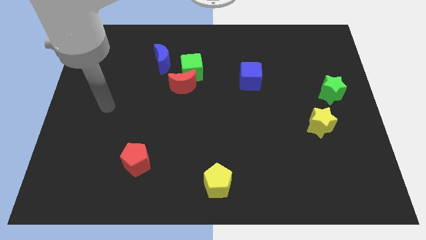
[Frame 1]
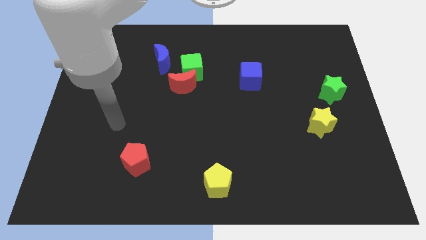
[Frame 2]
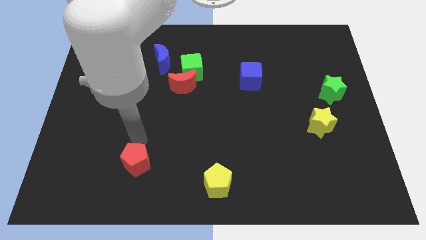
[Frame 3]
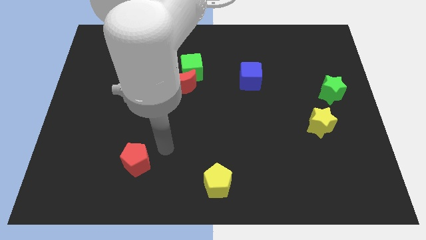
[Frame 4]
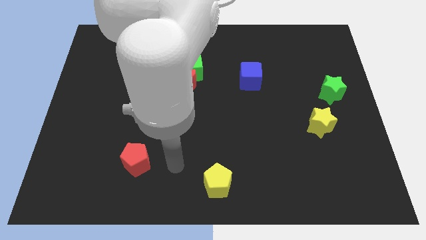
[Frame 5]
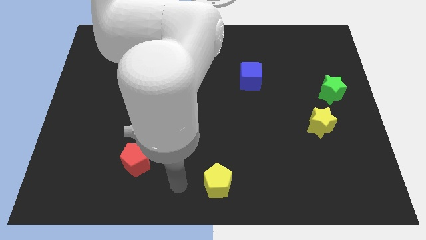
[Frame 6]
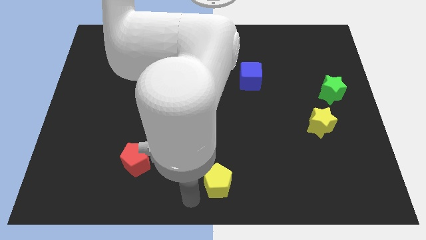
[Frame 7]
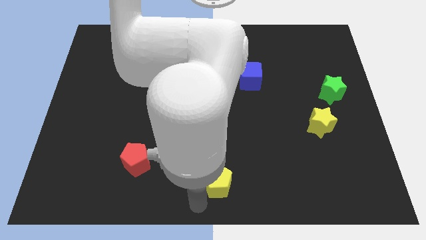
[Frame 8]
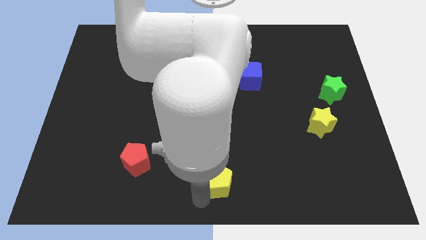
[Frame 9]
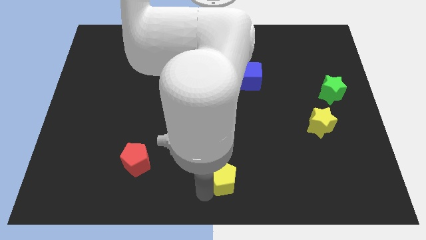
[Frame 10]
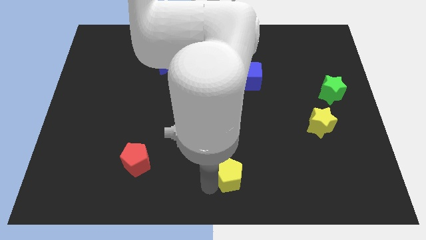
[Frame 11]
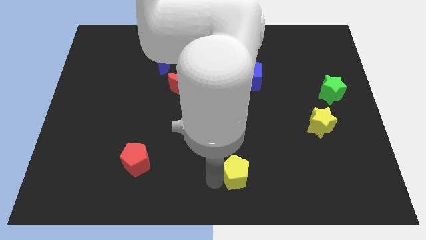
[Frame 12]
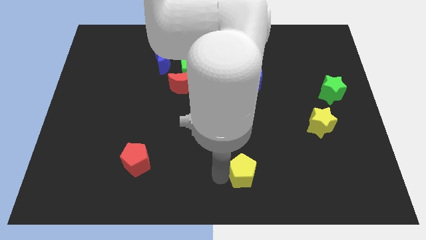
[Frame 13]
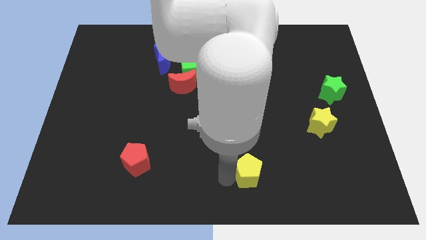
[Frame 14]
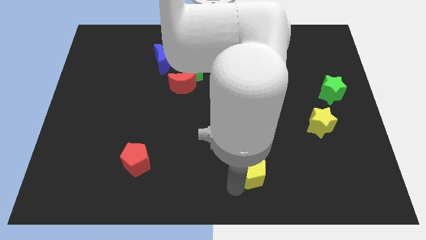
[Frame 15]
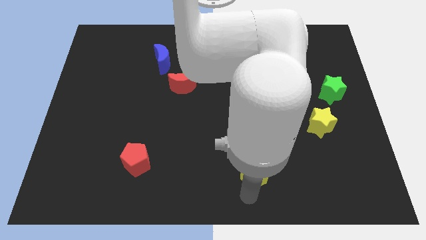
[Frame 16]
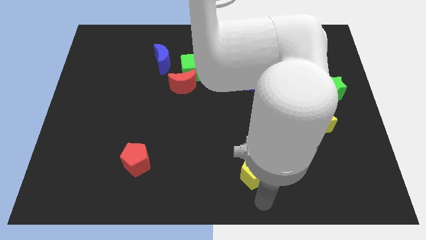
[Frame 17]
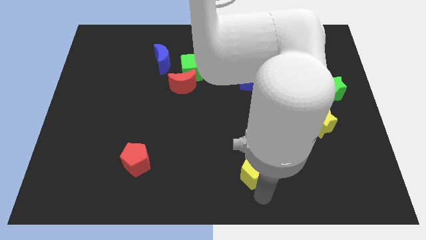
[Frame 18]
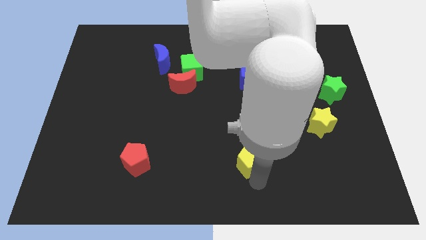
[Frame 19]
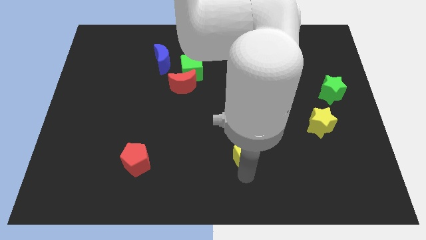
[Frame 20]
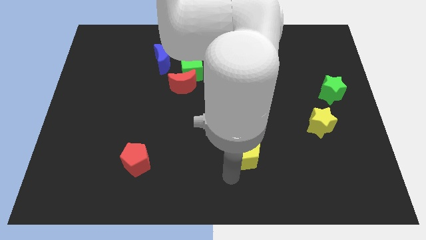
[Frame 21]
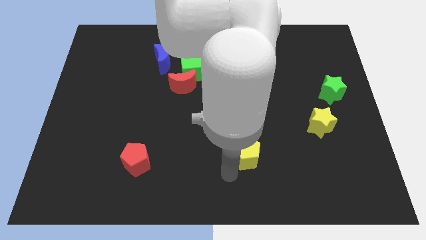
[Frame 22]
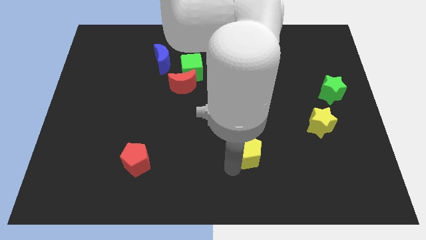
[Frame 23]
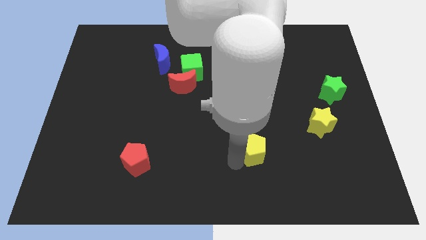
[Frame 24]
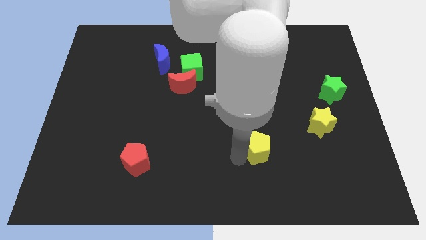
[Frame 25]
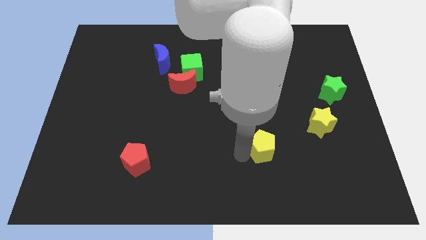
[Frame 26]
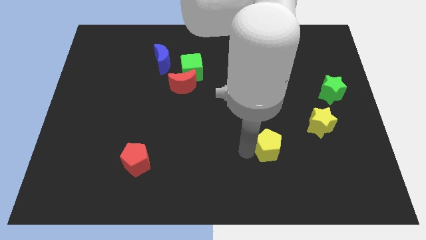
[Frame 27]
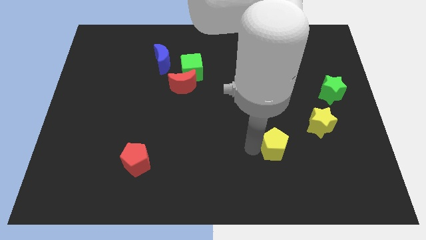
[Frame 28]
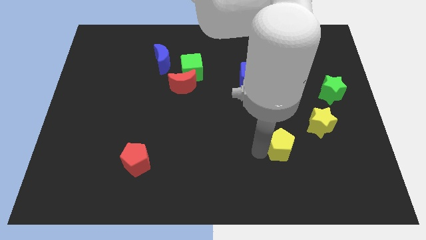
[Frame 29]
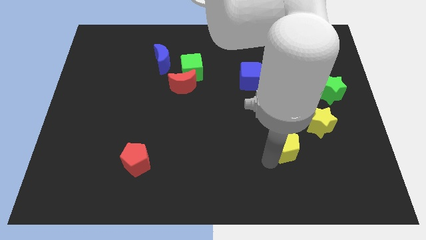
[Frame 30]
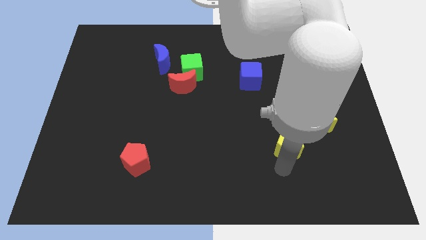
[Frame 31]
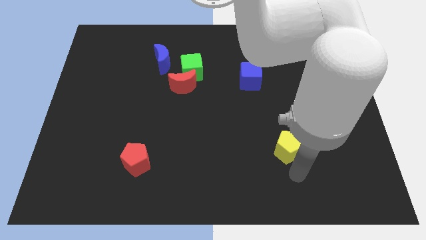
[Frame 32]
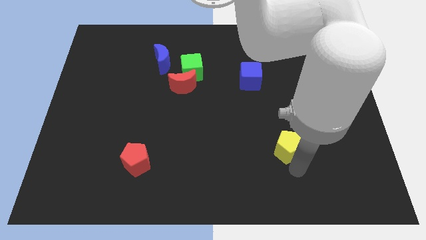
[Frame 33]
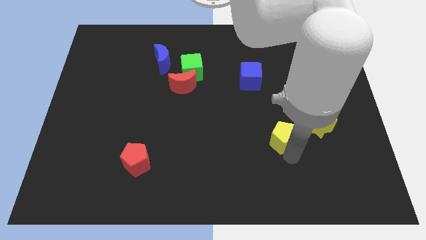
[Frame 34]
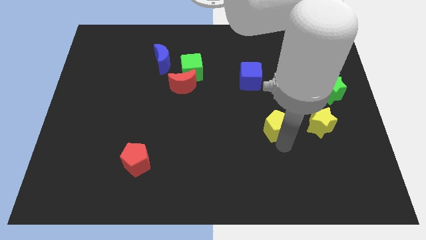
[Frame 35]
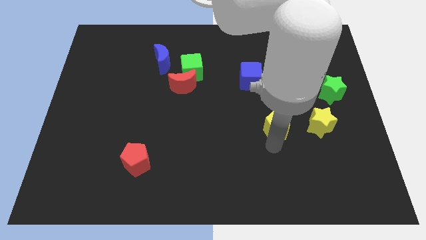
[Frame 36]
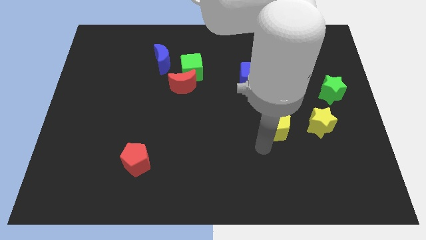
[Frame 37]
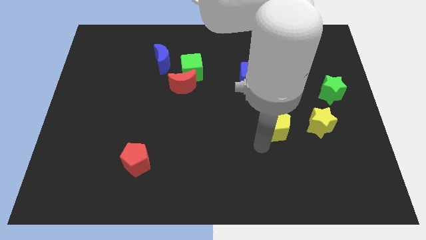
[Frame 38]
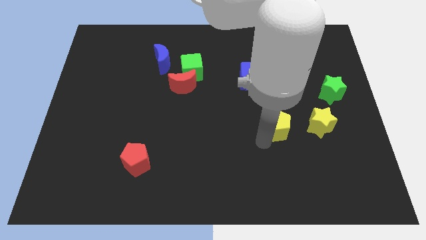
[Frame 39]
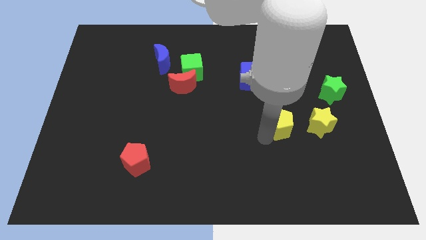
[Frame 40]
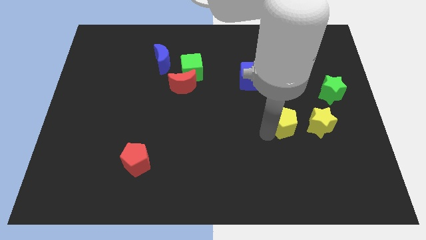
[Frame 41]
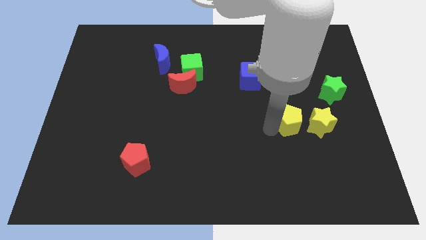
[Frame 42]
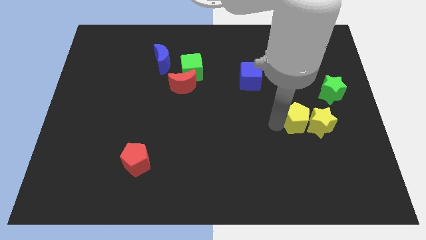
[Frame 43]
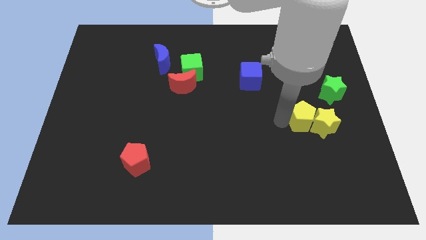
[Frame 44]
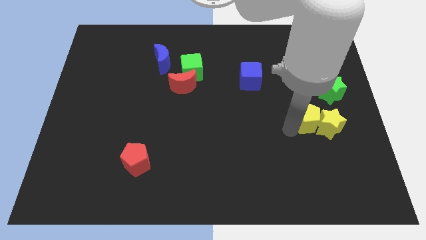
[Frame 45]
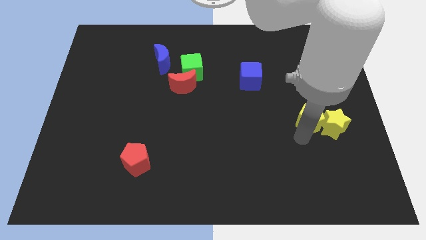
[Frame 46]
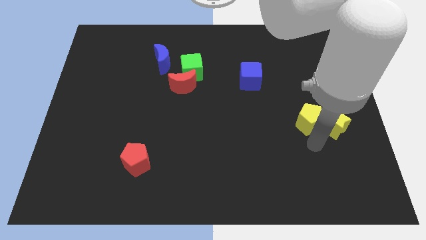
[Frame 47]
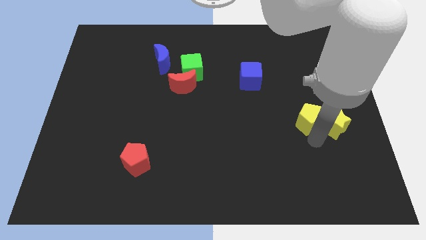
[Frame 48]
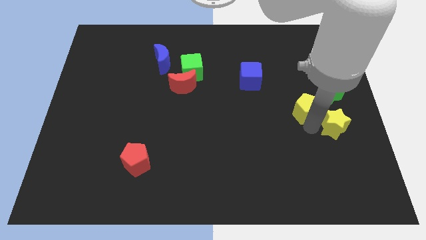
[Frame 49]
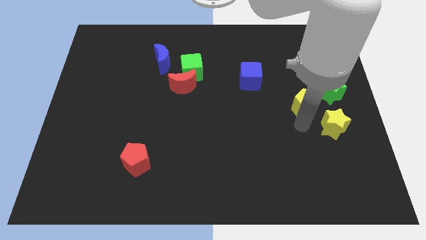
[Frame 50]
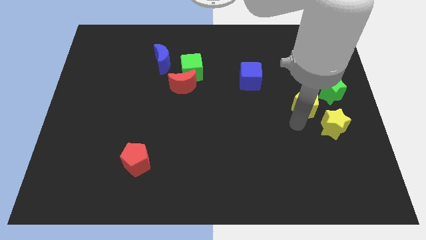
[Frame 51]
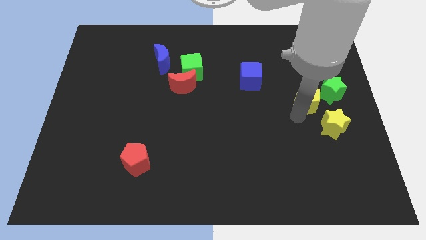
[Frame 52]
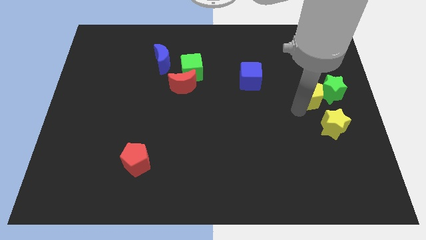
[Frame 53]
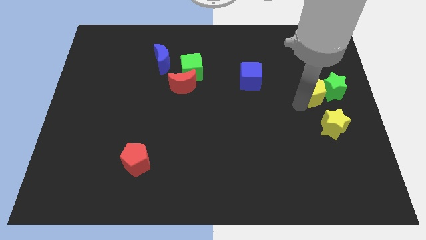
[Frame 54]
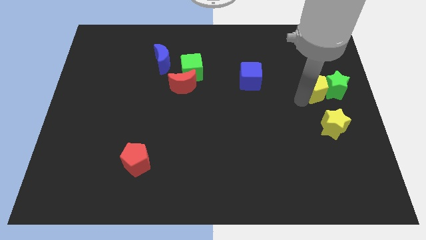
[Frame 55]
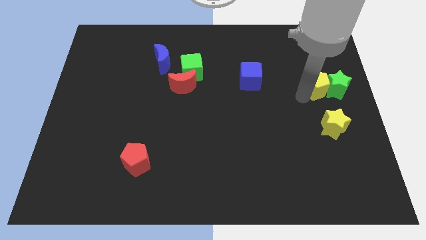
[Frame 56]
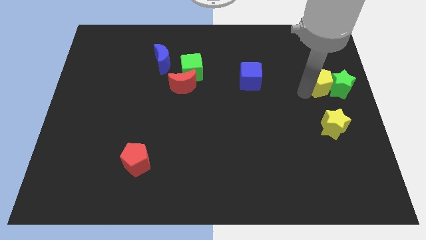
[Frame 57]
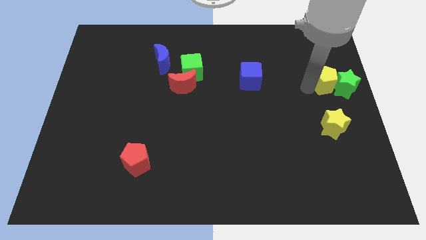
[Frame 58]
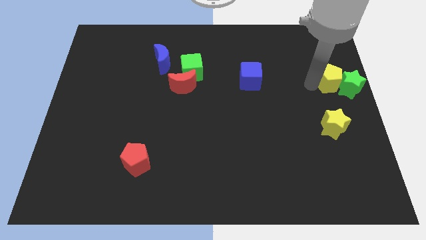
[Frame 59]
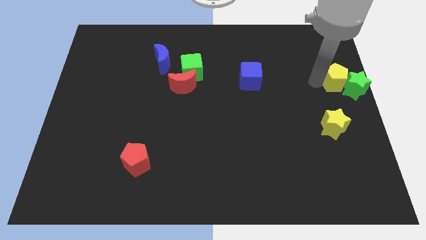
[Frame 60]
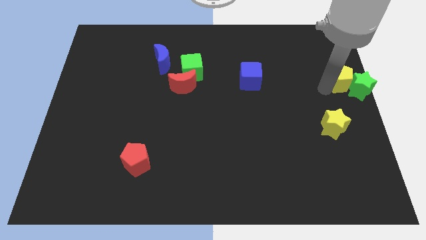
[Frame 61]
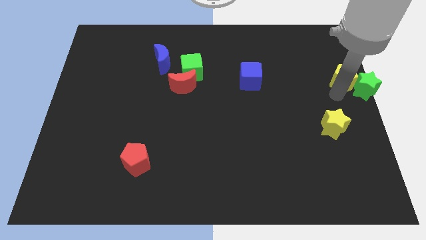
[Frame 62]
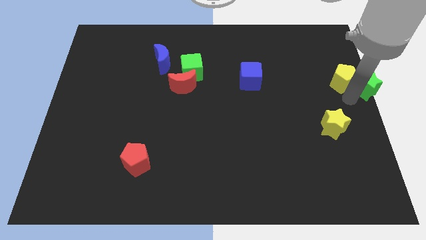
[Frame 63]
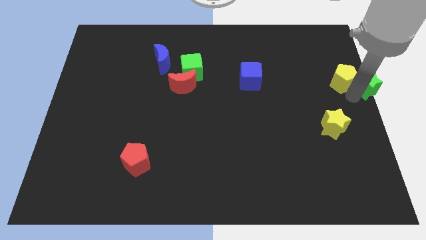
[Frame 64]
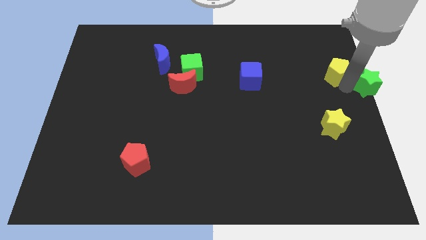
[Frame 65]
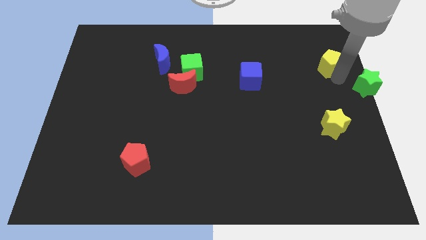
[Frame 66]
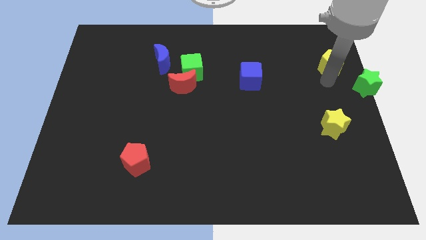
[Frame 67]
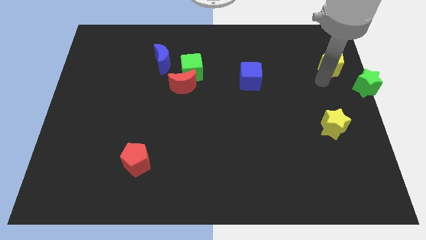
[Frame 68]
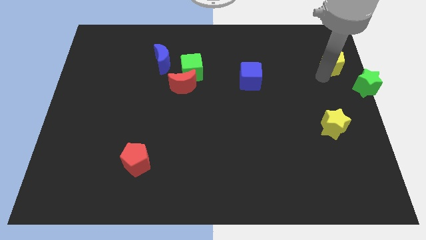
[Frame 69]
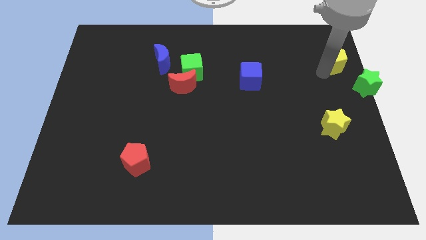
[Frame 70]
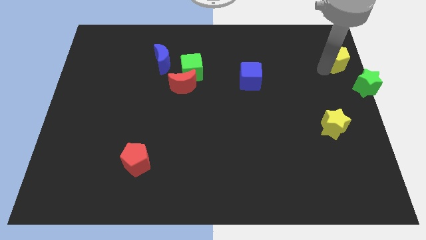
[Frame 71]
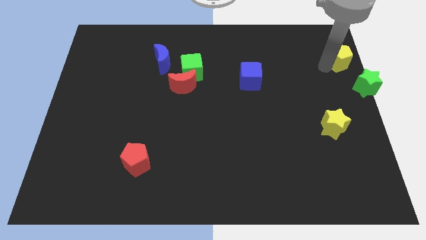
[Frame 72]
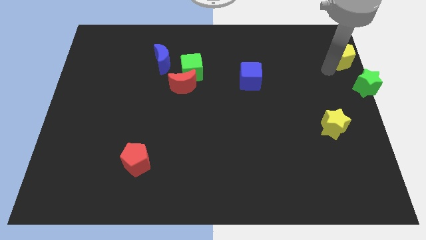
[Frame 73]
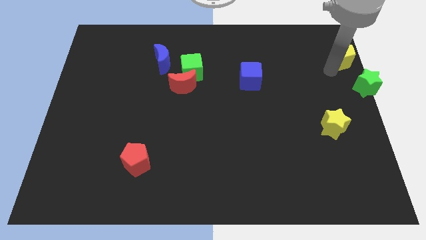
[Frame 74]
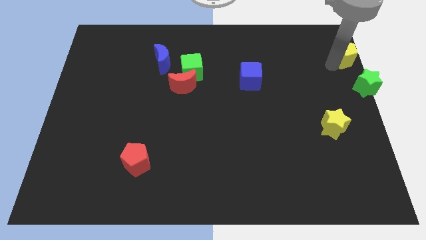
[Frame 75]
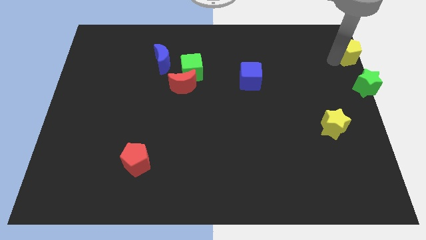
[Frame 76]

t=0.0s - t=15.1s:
put the yellow pentagon to the top right
